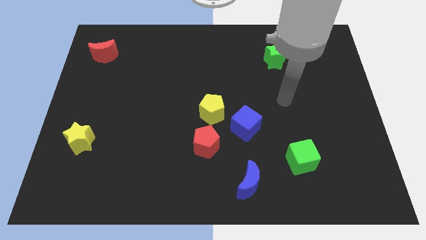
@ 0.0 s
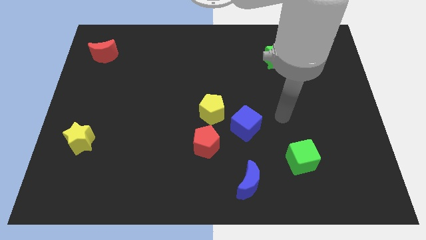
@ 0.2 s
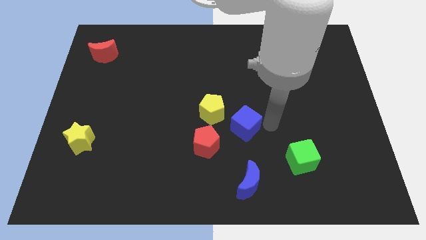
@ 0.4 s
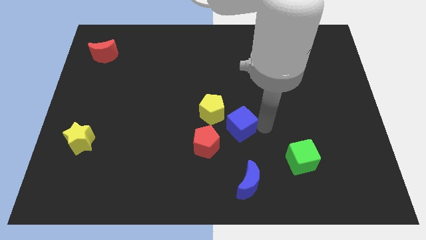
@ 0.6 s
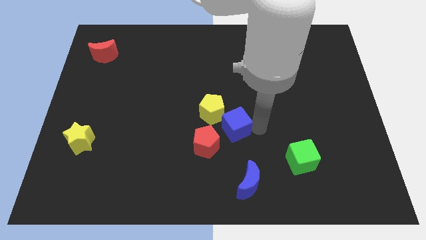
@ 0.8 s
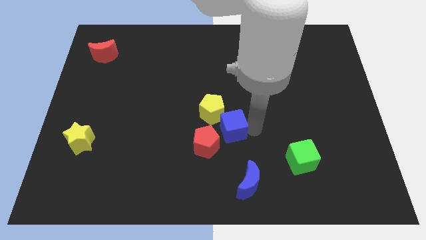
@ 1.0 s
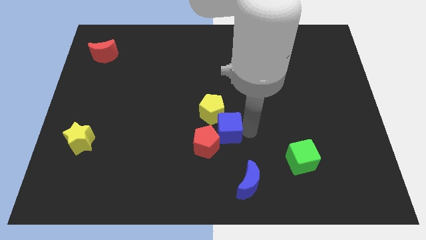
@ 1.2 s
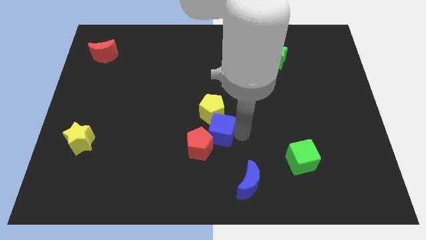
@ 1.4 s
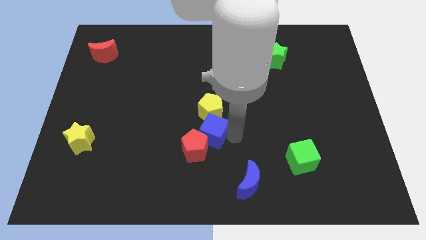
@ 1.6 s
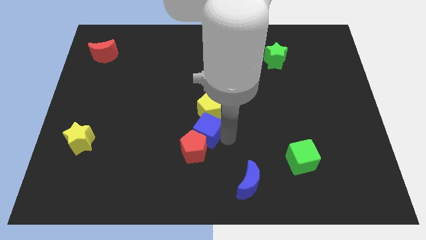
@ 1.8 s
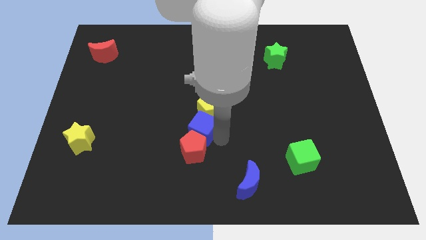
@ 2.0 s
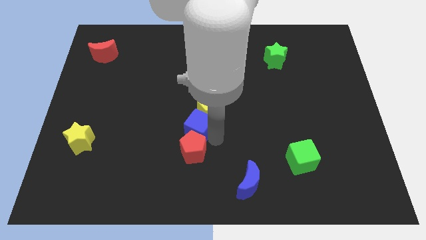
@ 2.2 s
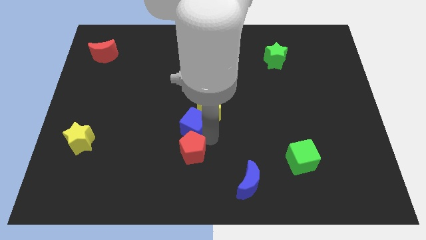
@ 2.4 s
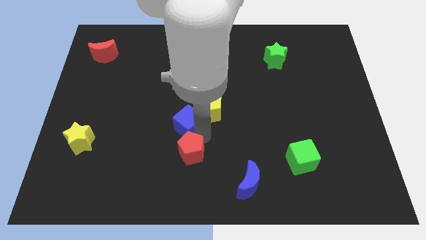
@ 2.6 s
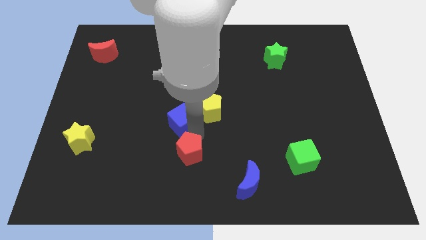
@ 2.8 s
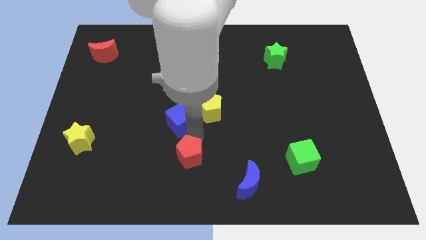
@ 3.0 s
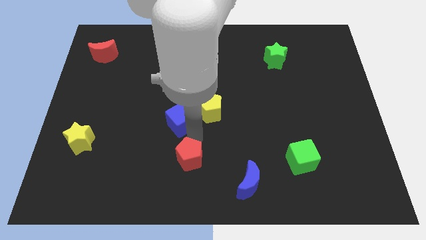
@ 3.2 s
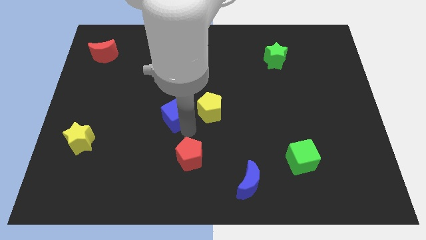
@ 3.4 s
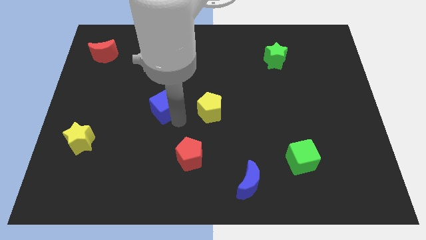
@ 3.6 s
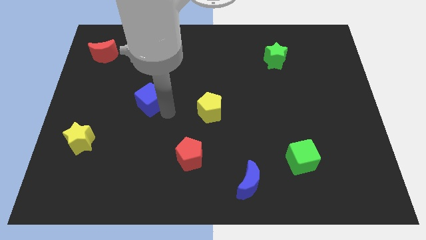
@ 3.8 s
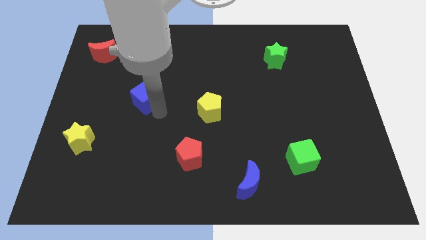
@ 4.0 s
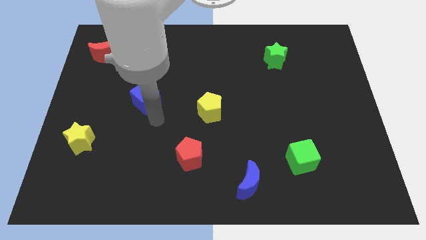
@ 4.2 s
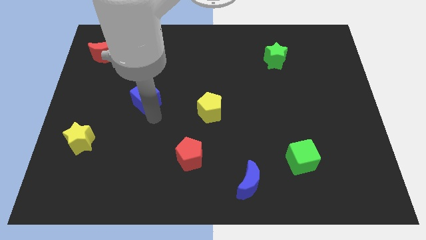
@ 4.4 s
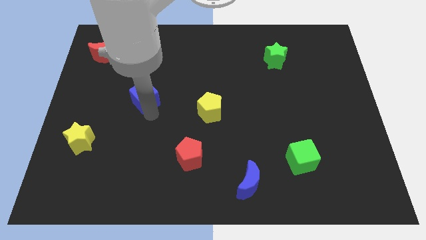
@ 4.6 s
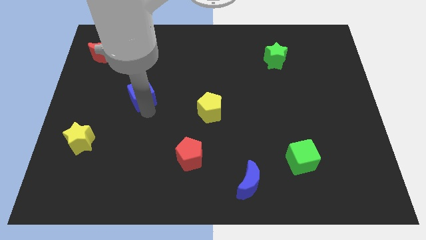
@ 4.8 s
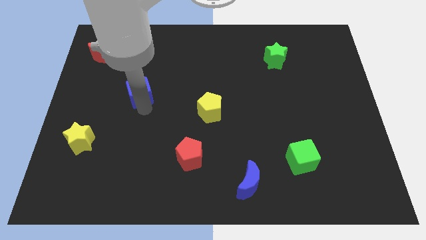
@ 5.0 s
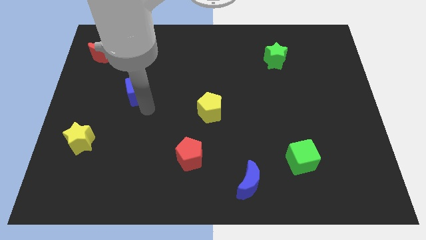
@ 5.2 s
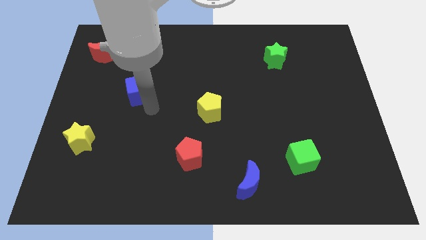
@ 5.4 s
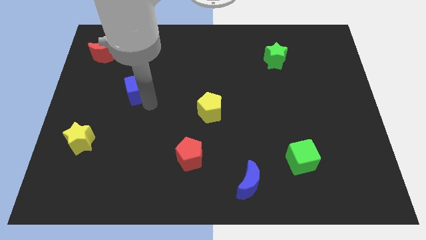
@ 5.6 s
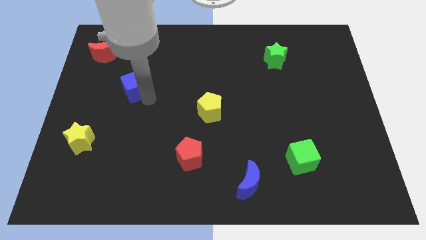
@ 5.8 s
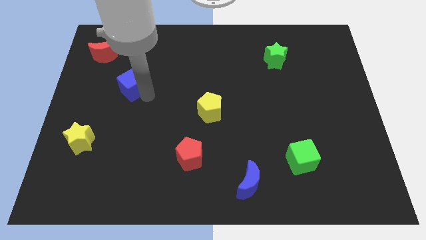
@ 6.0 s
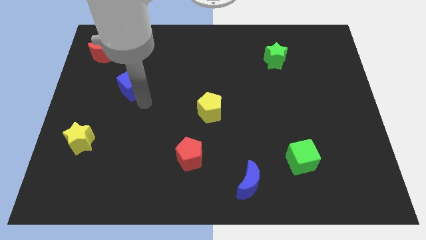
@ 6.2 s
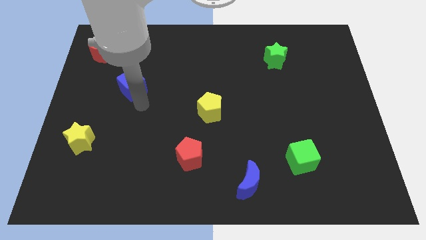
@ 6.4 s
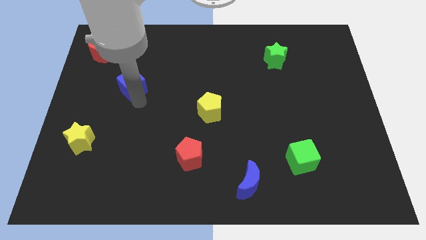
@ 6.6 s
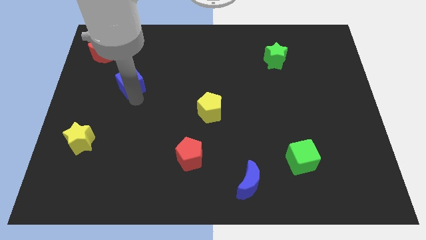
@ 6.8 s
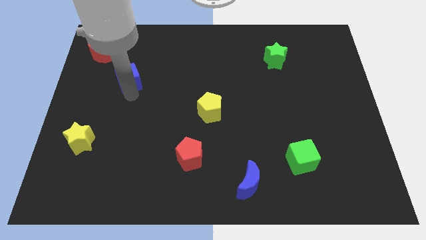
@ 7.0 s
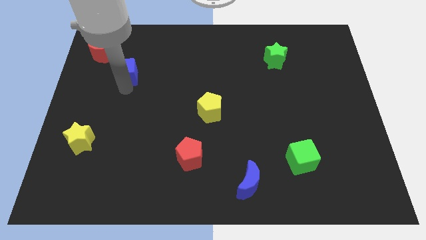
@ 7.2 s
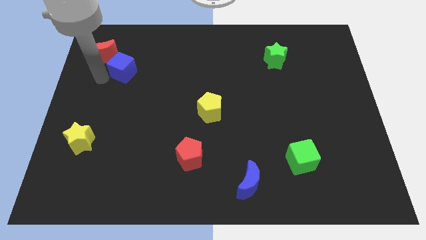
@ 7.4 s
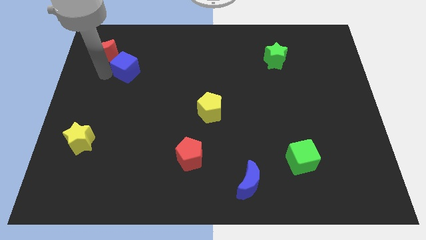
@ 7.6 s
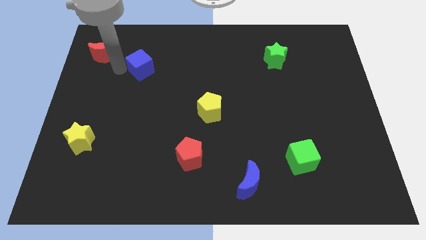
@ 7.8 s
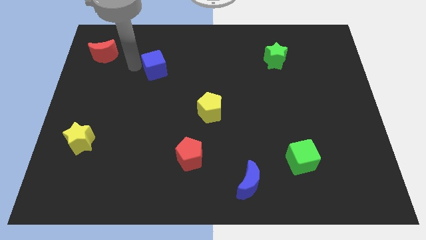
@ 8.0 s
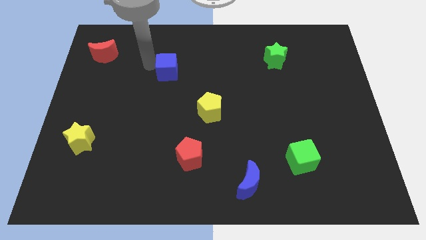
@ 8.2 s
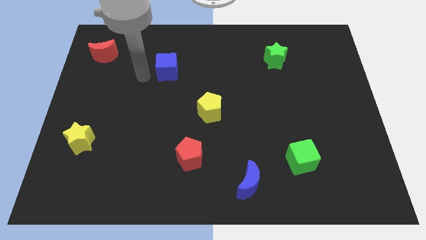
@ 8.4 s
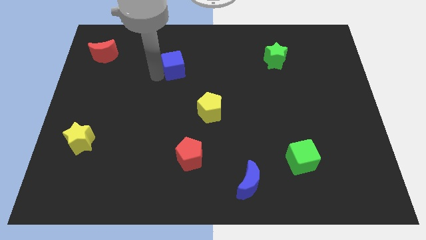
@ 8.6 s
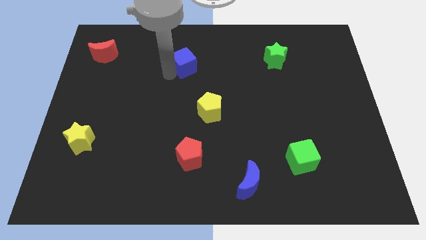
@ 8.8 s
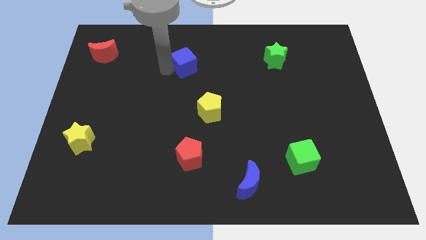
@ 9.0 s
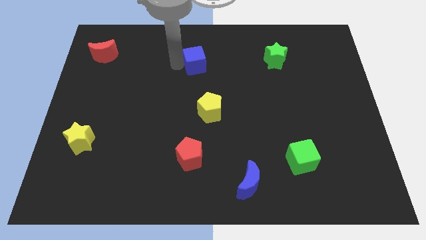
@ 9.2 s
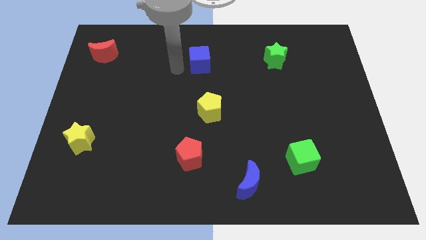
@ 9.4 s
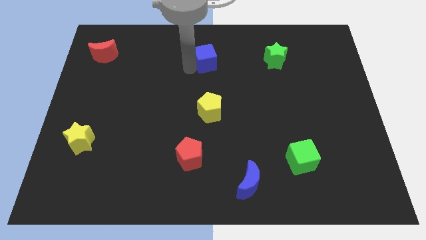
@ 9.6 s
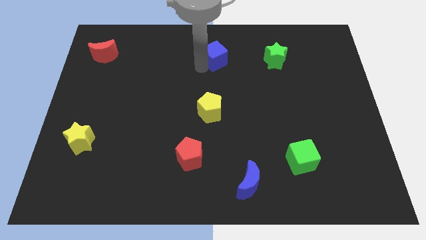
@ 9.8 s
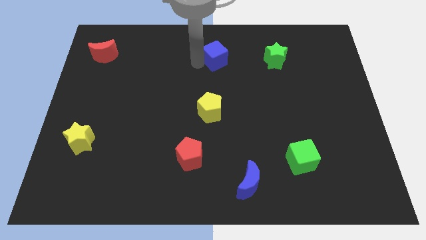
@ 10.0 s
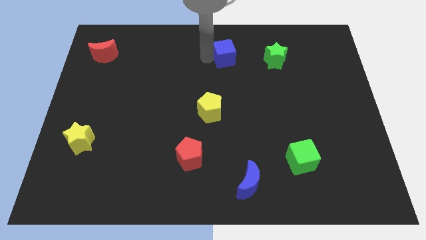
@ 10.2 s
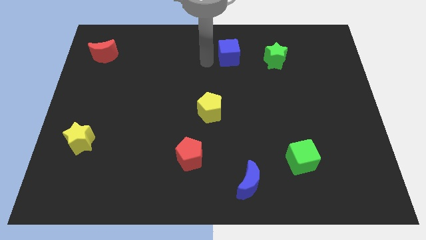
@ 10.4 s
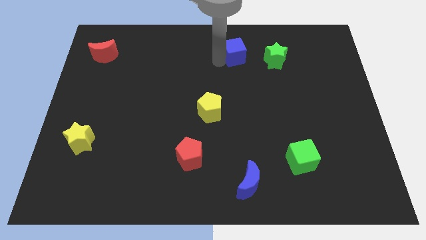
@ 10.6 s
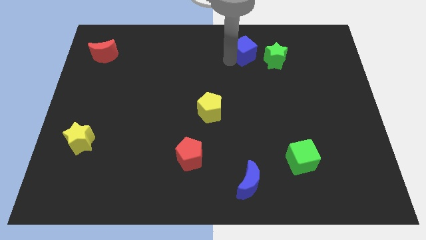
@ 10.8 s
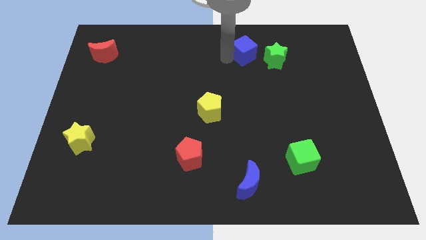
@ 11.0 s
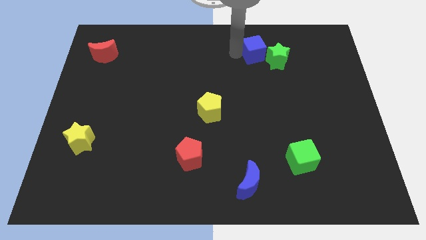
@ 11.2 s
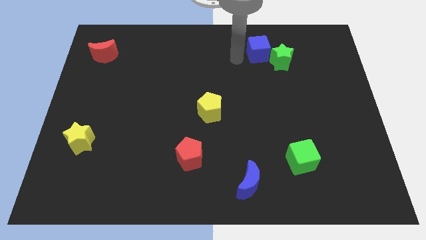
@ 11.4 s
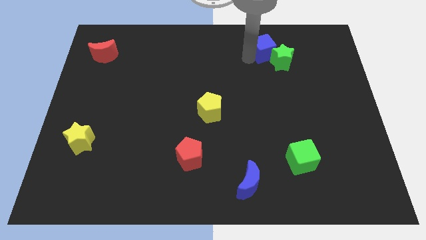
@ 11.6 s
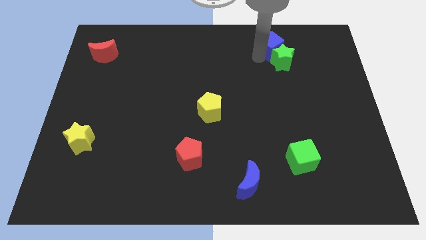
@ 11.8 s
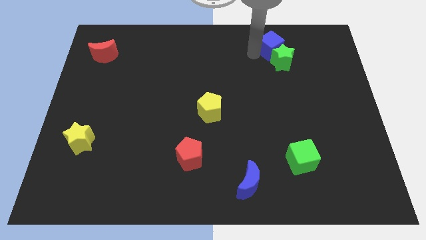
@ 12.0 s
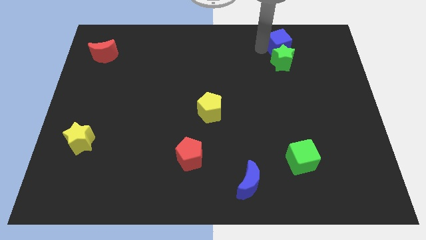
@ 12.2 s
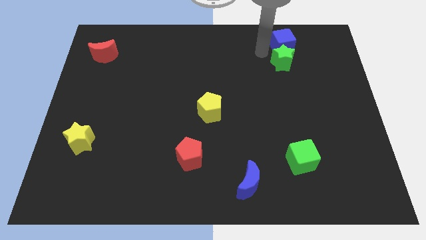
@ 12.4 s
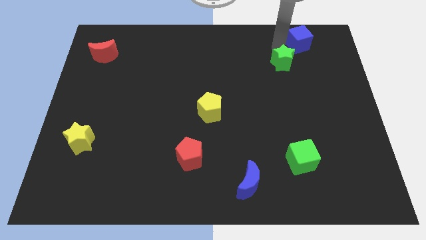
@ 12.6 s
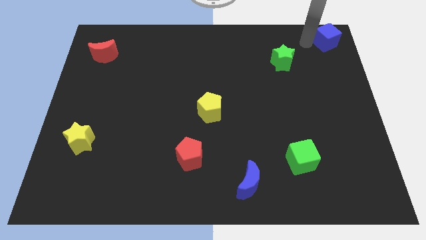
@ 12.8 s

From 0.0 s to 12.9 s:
put the blue cube to the upper right corner

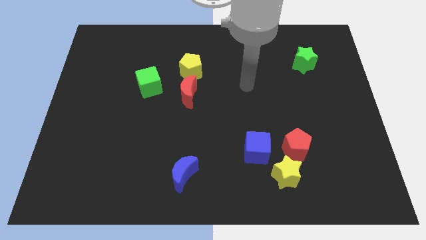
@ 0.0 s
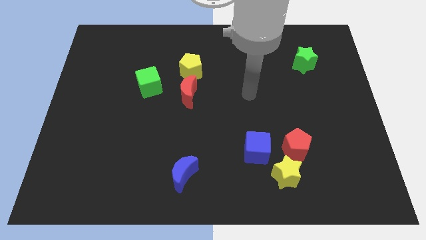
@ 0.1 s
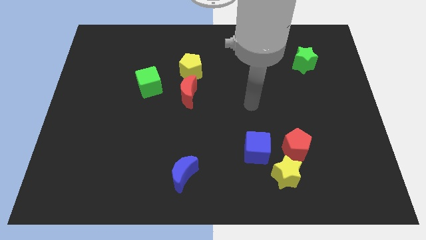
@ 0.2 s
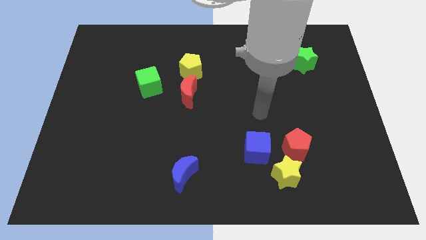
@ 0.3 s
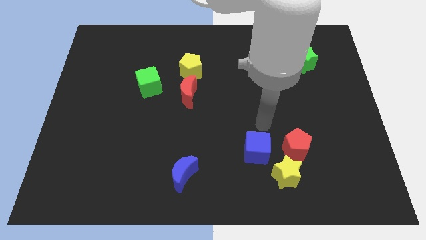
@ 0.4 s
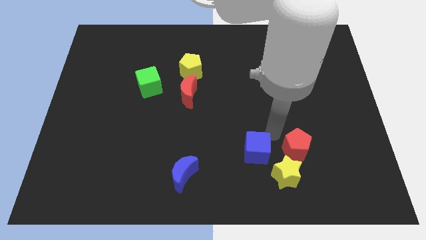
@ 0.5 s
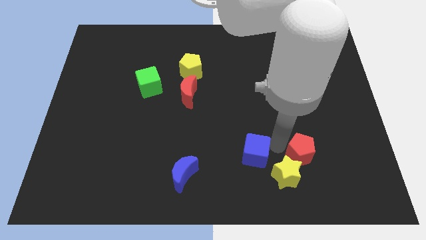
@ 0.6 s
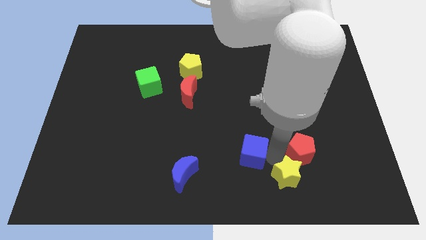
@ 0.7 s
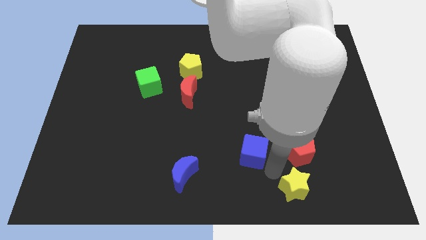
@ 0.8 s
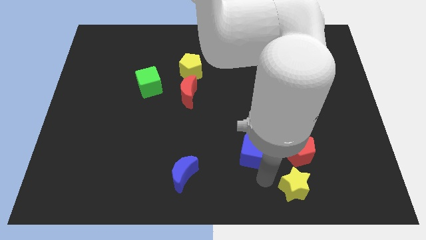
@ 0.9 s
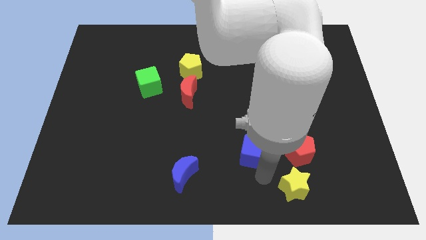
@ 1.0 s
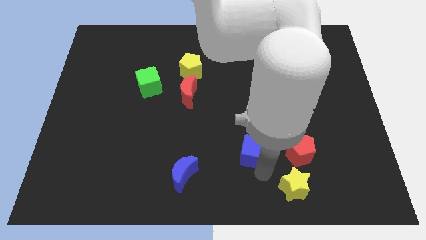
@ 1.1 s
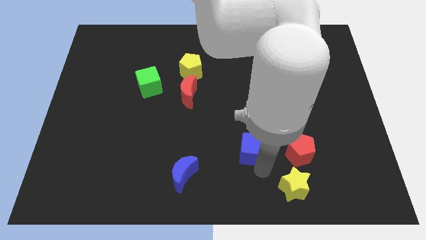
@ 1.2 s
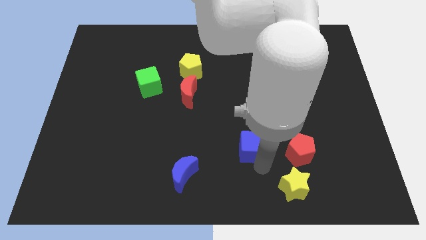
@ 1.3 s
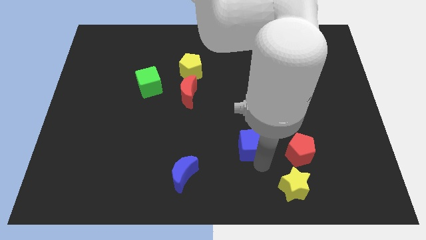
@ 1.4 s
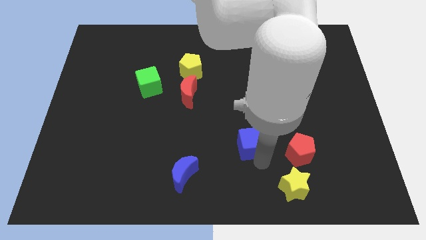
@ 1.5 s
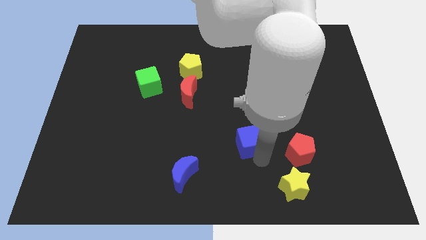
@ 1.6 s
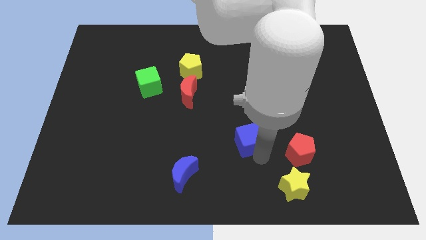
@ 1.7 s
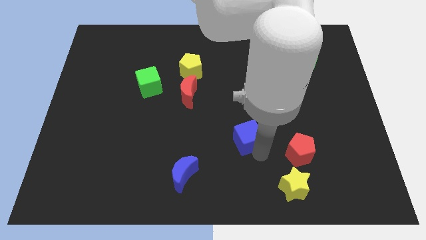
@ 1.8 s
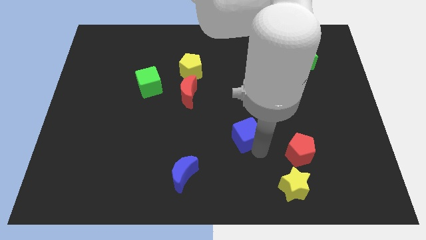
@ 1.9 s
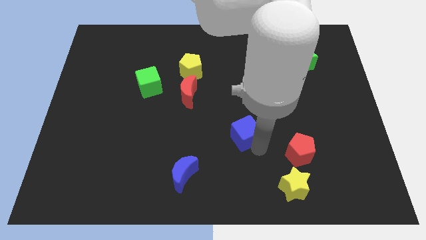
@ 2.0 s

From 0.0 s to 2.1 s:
slide the blue cube to the middle of the board
